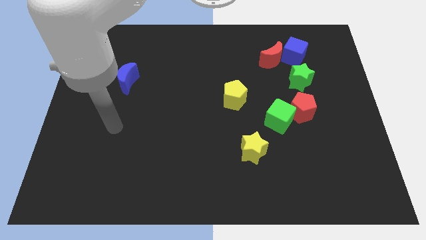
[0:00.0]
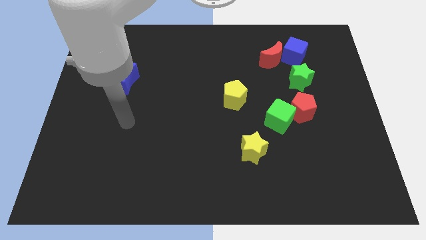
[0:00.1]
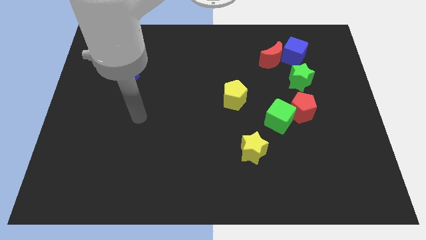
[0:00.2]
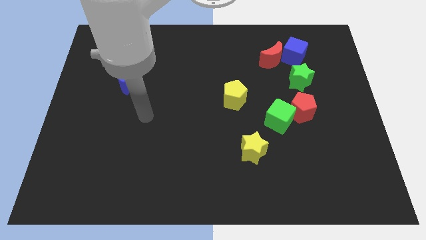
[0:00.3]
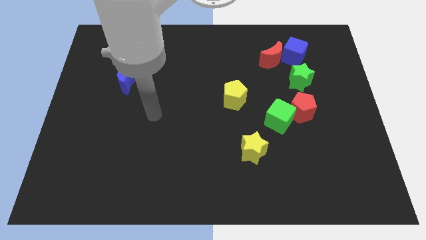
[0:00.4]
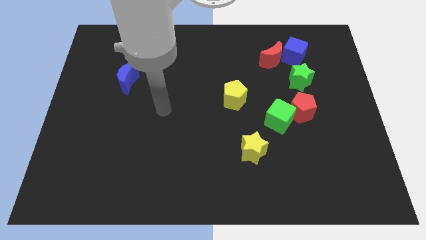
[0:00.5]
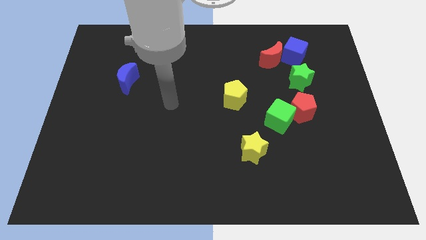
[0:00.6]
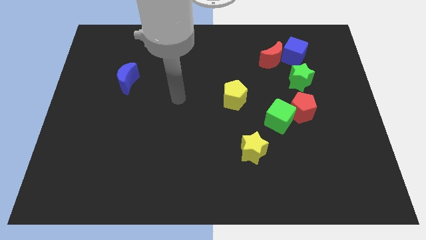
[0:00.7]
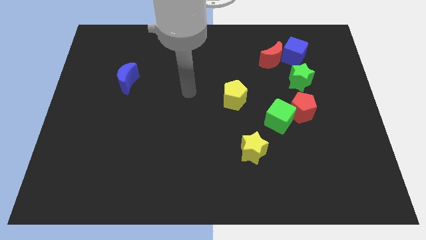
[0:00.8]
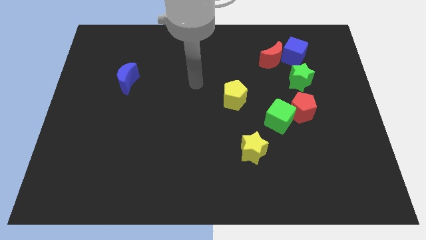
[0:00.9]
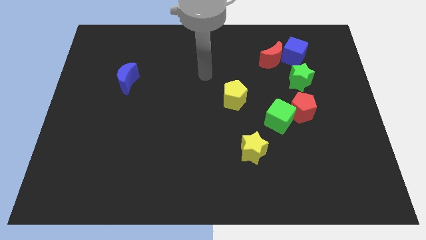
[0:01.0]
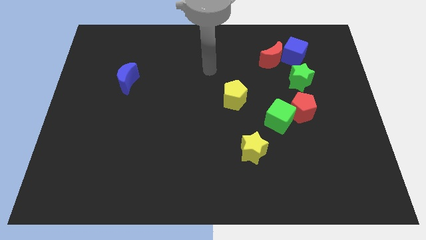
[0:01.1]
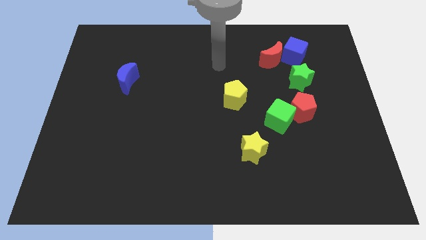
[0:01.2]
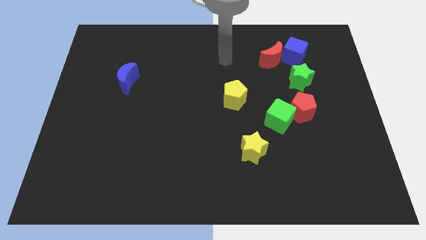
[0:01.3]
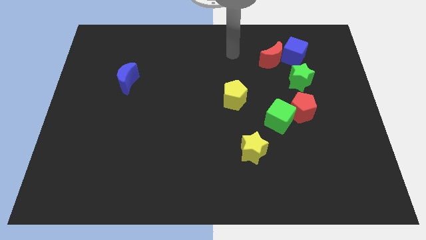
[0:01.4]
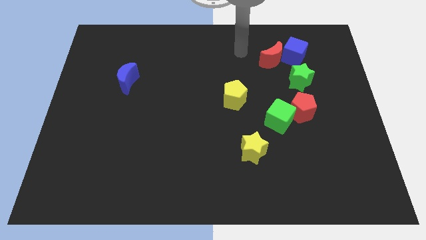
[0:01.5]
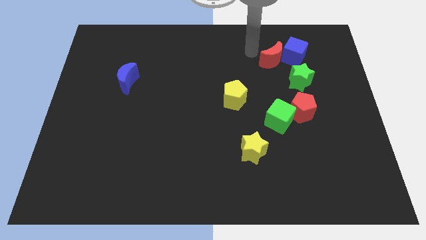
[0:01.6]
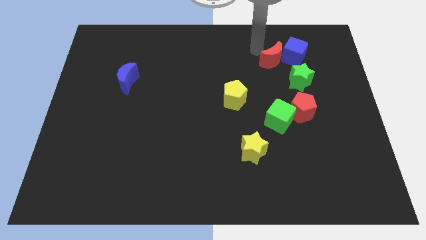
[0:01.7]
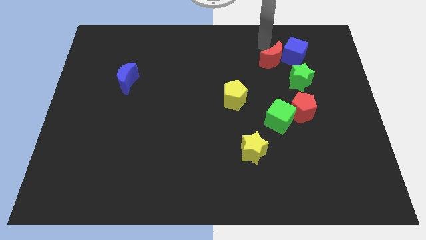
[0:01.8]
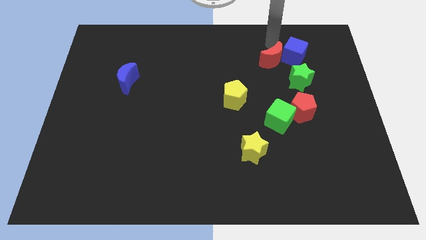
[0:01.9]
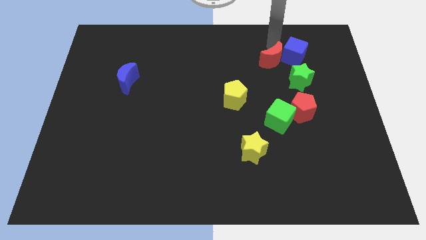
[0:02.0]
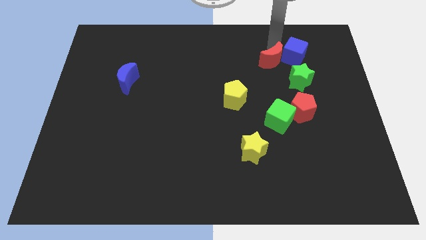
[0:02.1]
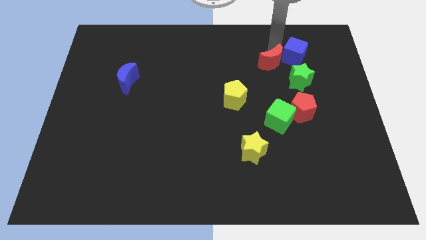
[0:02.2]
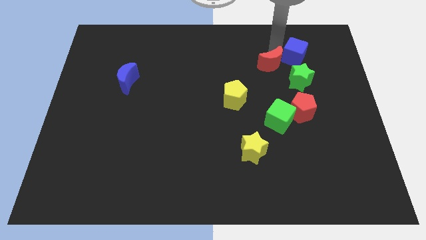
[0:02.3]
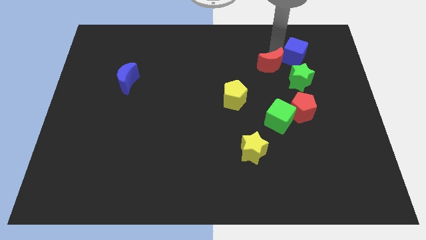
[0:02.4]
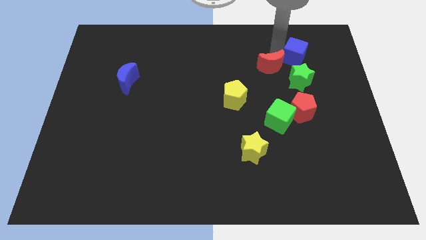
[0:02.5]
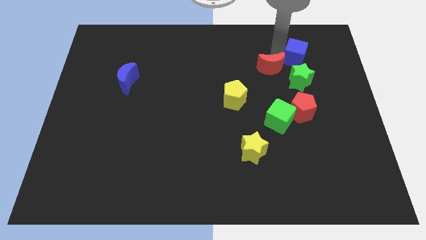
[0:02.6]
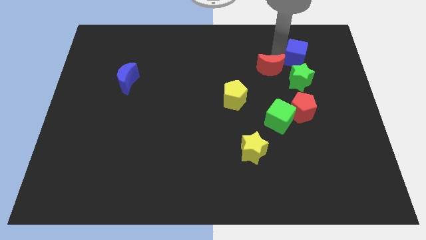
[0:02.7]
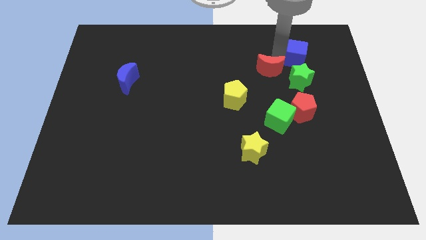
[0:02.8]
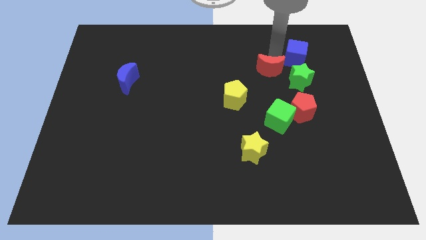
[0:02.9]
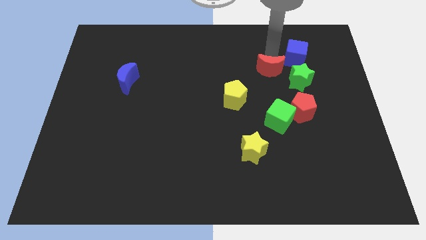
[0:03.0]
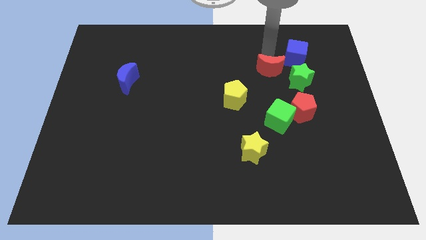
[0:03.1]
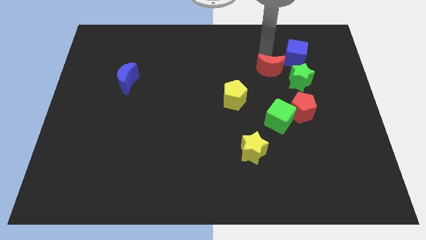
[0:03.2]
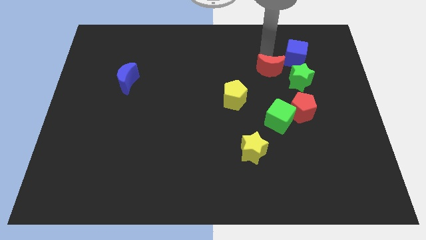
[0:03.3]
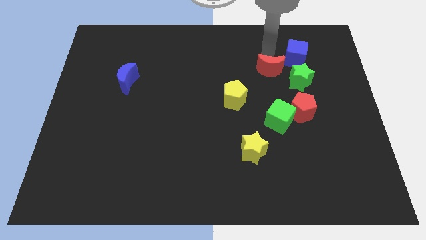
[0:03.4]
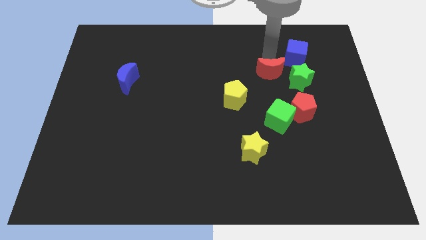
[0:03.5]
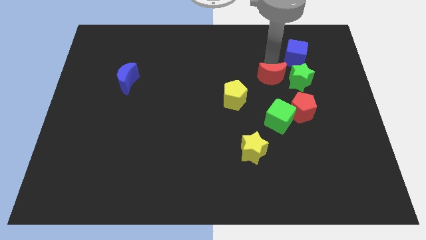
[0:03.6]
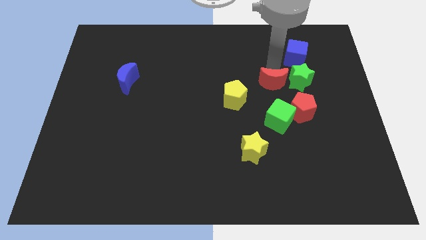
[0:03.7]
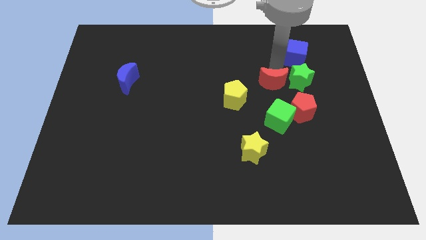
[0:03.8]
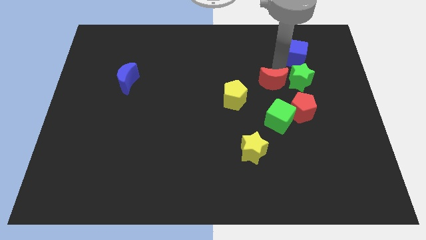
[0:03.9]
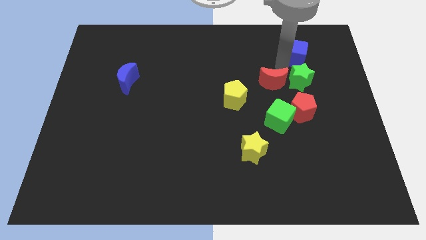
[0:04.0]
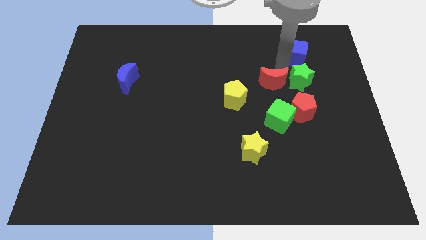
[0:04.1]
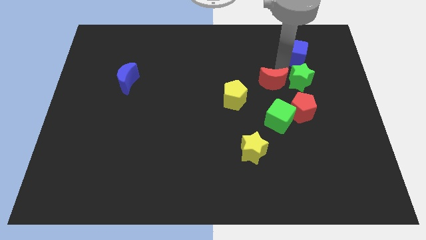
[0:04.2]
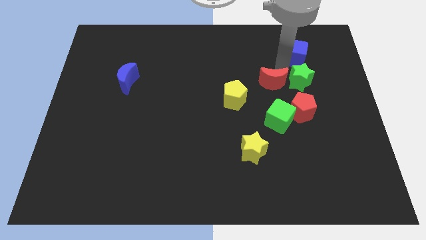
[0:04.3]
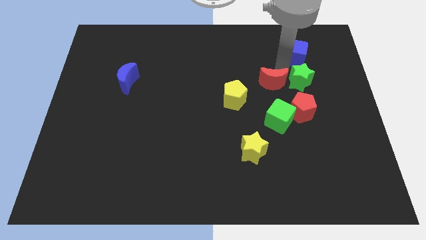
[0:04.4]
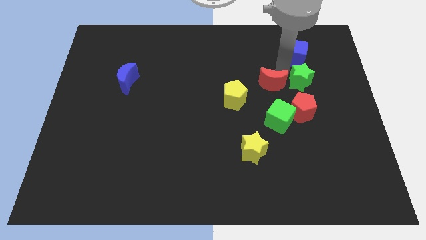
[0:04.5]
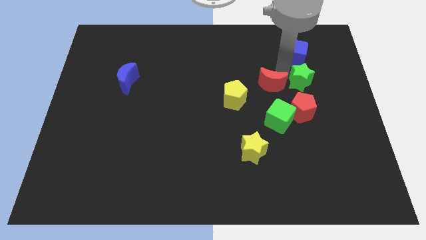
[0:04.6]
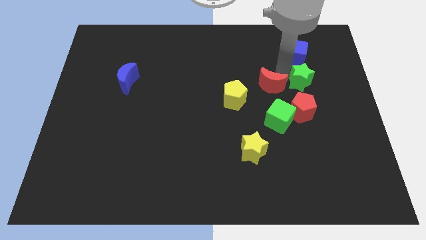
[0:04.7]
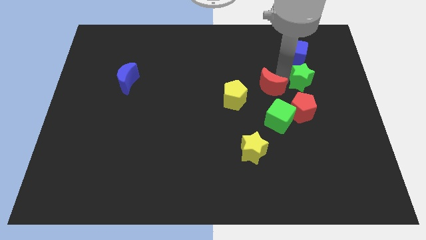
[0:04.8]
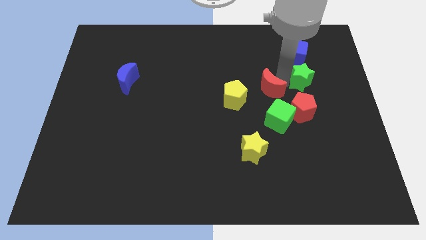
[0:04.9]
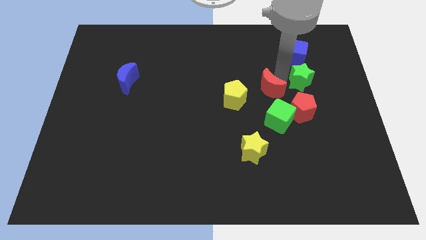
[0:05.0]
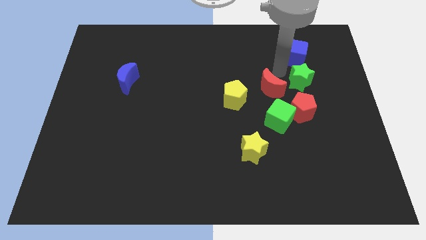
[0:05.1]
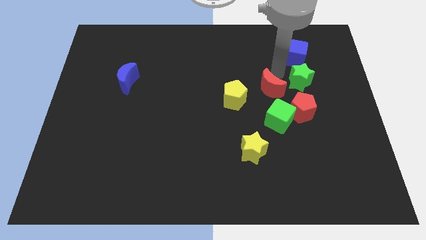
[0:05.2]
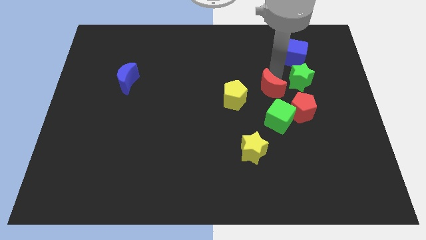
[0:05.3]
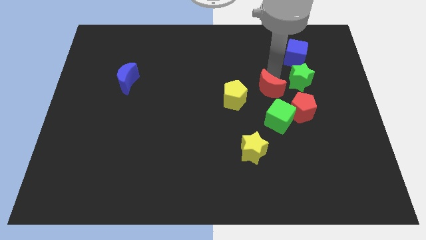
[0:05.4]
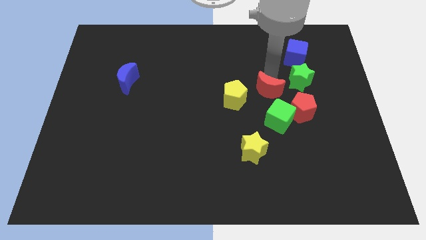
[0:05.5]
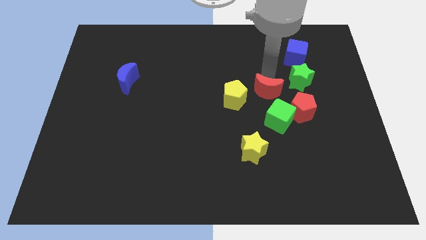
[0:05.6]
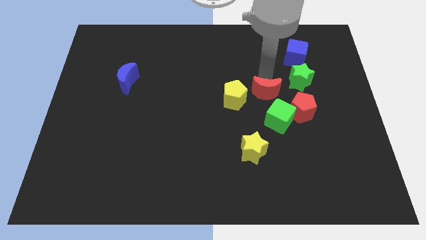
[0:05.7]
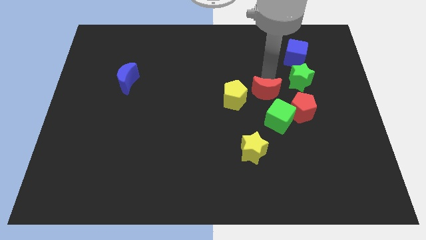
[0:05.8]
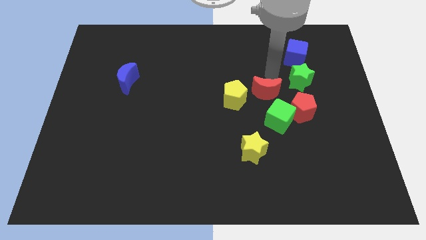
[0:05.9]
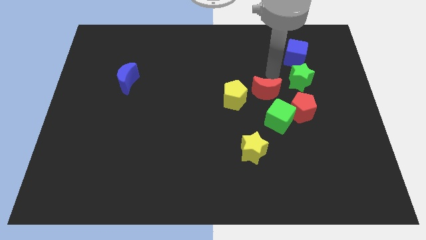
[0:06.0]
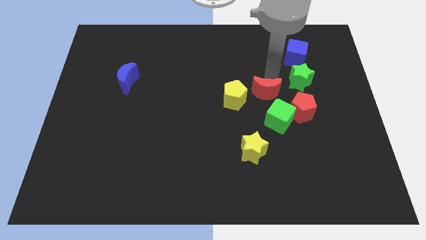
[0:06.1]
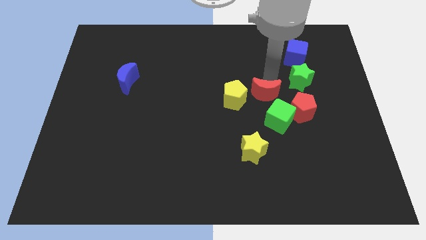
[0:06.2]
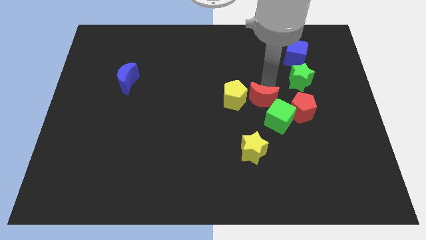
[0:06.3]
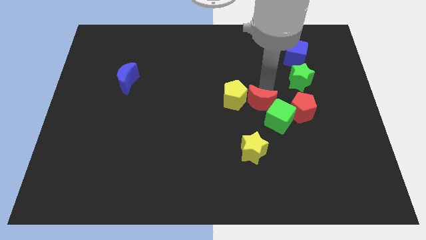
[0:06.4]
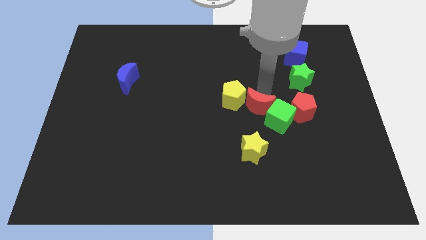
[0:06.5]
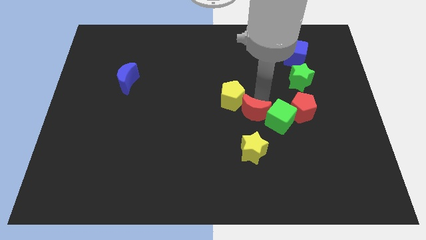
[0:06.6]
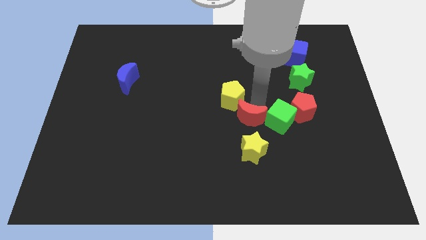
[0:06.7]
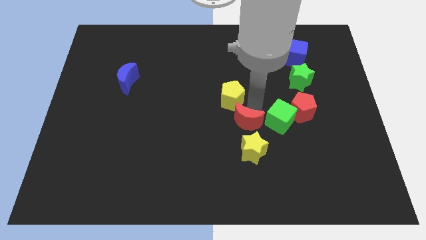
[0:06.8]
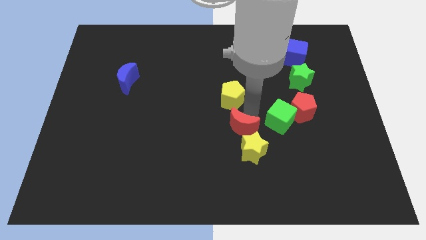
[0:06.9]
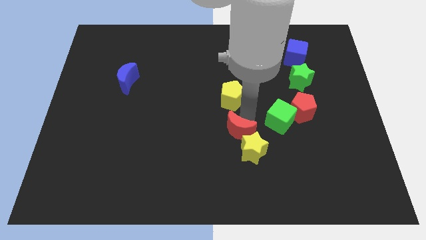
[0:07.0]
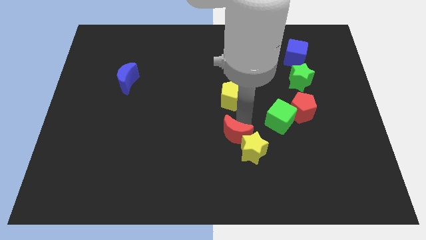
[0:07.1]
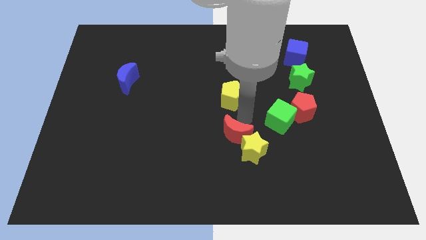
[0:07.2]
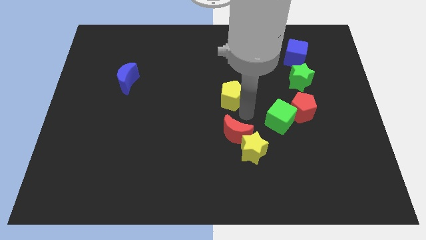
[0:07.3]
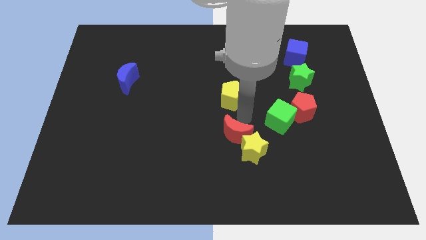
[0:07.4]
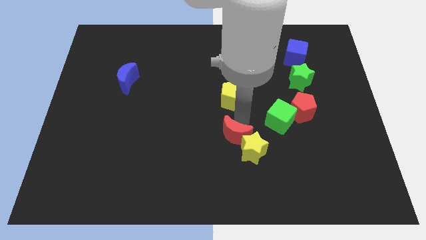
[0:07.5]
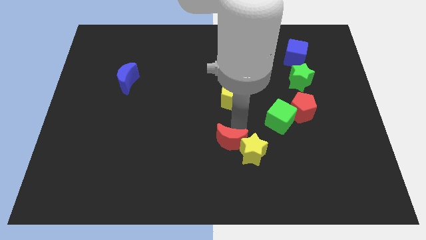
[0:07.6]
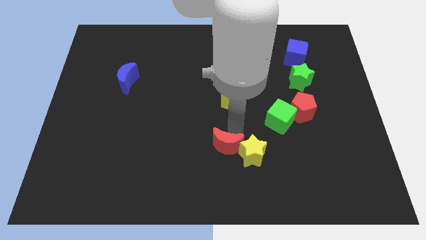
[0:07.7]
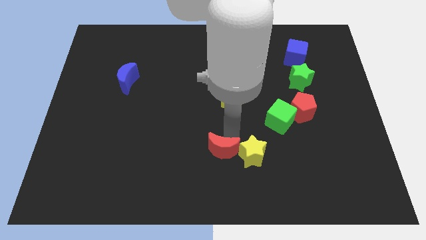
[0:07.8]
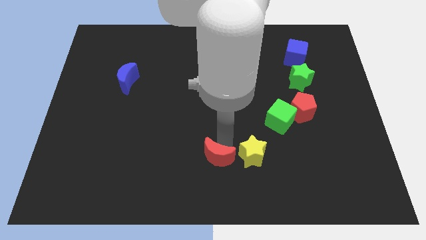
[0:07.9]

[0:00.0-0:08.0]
put the red moon to the bottom
